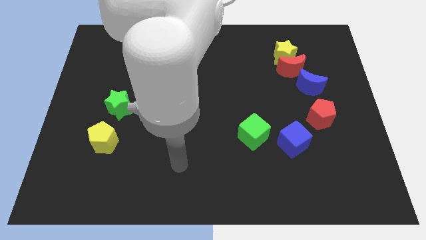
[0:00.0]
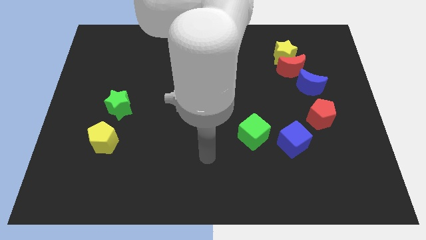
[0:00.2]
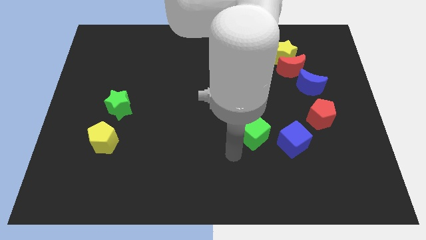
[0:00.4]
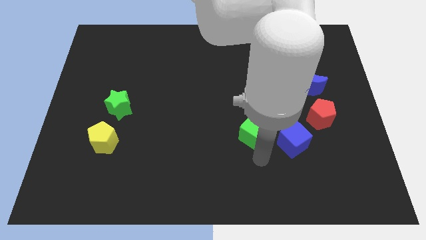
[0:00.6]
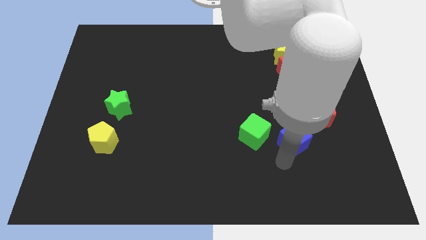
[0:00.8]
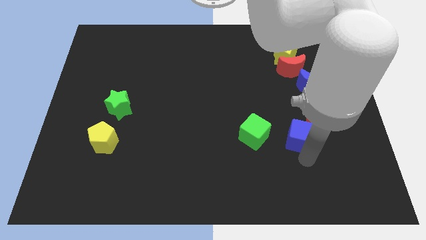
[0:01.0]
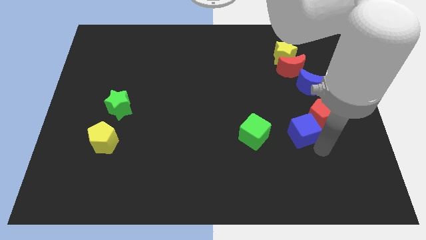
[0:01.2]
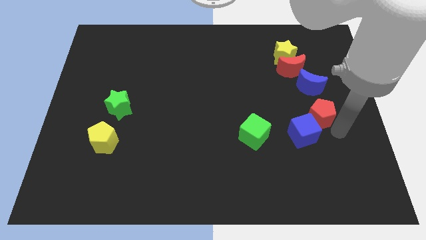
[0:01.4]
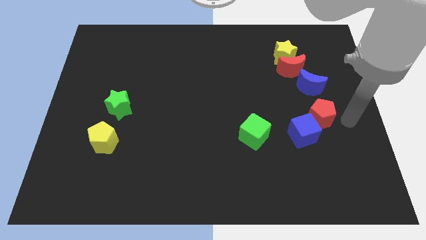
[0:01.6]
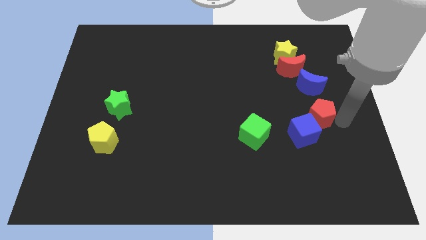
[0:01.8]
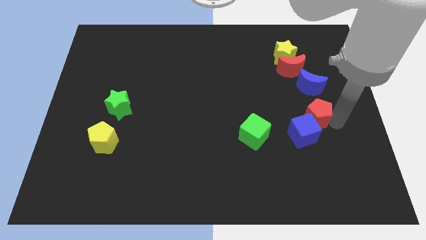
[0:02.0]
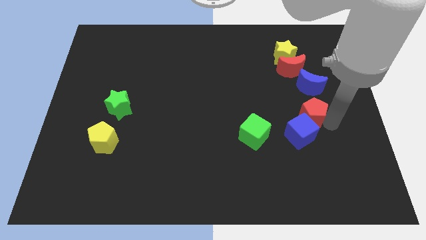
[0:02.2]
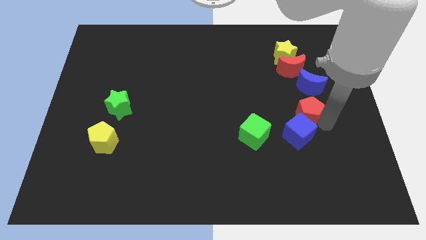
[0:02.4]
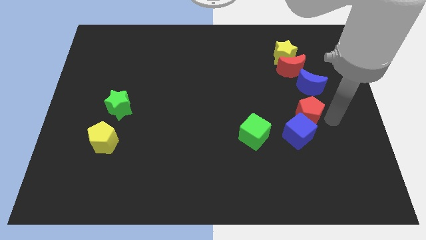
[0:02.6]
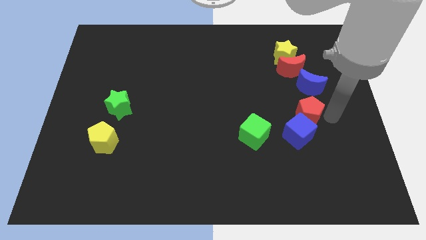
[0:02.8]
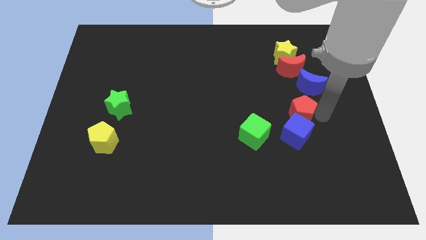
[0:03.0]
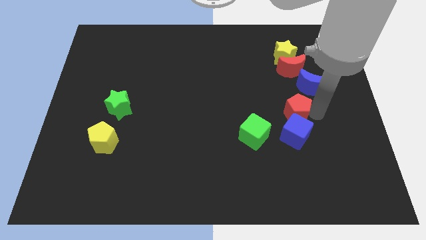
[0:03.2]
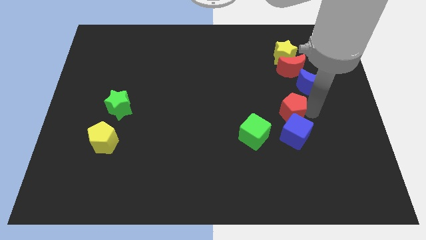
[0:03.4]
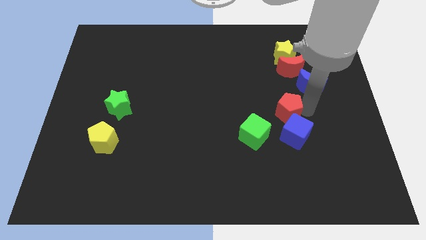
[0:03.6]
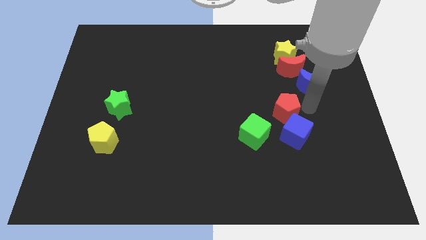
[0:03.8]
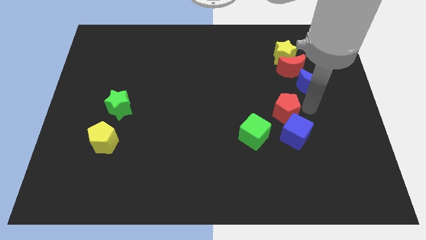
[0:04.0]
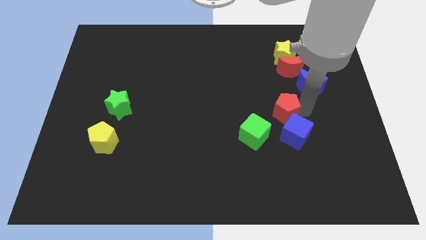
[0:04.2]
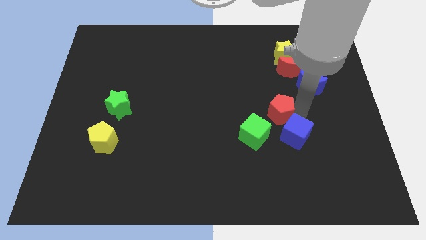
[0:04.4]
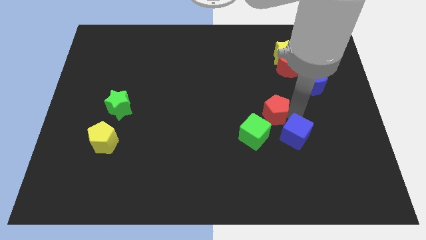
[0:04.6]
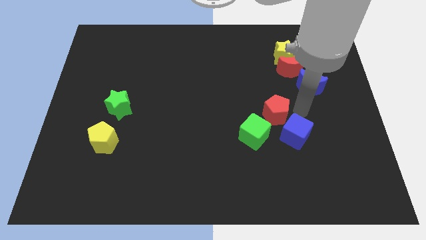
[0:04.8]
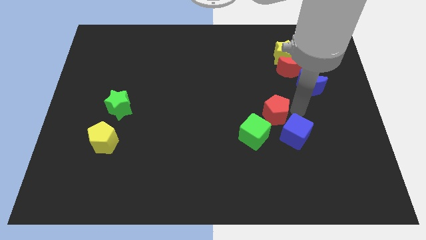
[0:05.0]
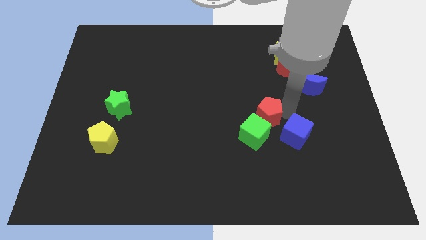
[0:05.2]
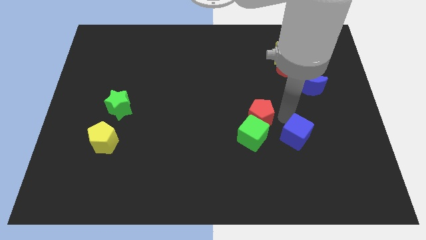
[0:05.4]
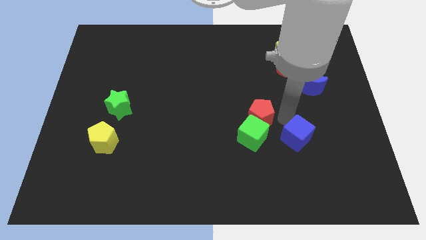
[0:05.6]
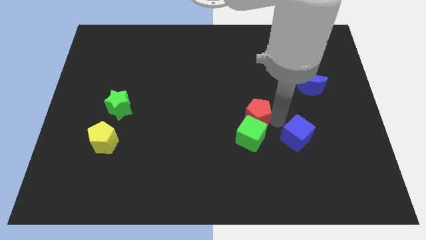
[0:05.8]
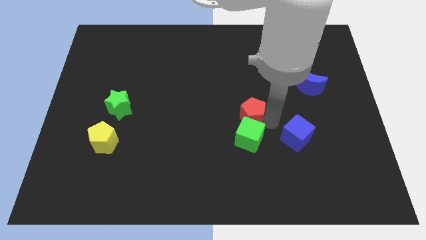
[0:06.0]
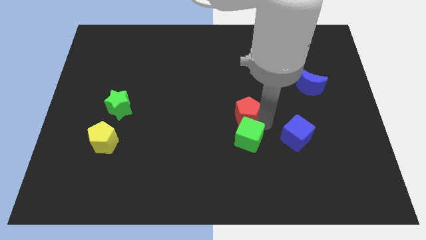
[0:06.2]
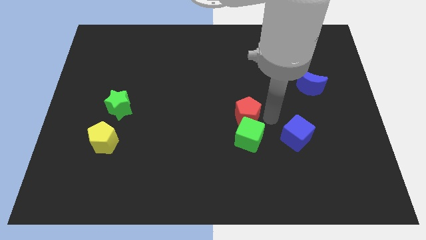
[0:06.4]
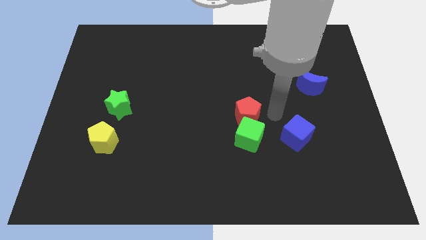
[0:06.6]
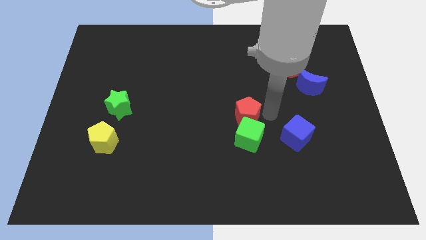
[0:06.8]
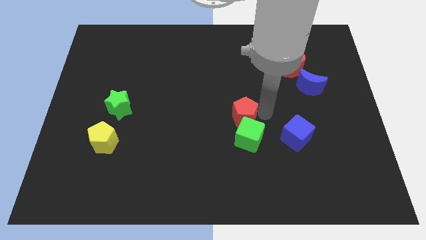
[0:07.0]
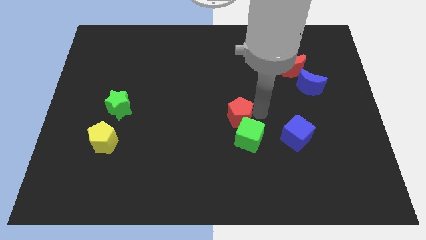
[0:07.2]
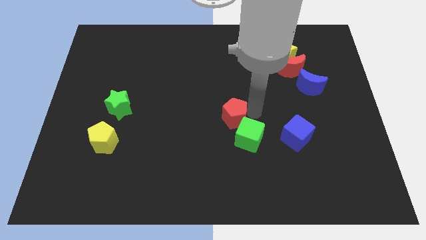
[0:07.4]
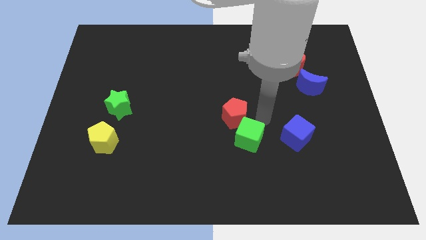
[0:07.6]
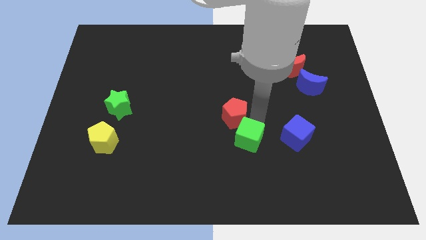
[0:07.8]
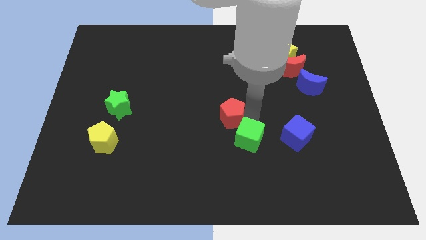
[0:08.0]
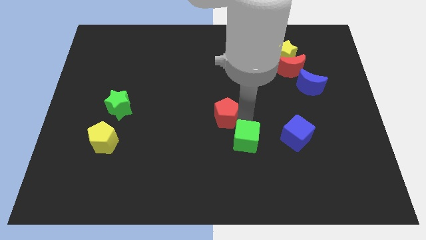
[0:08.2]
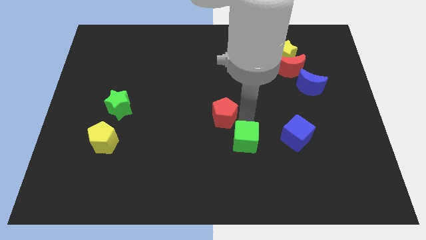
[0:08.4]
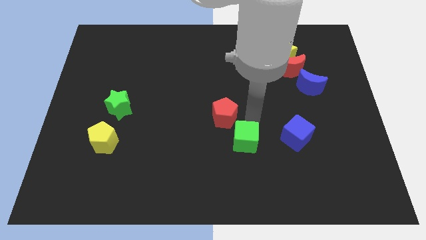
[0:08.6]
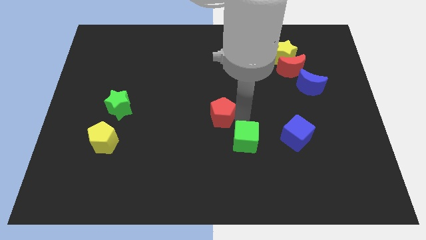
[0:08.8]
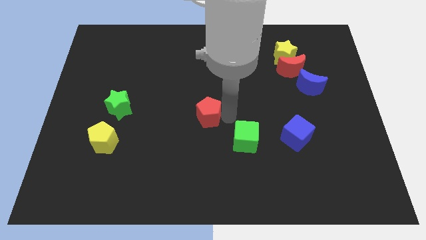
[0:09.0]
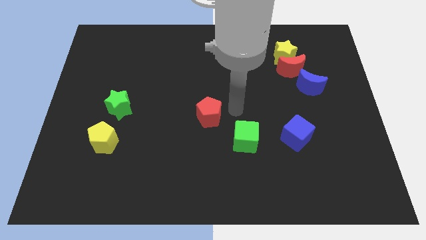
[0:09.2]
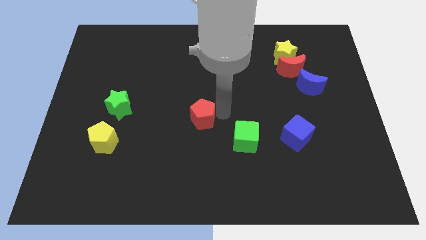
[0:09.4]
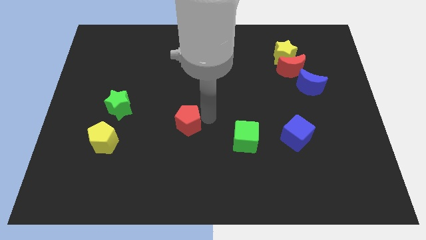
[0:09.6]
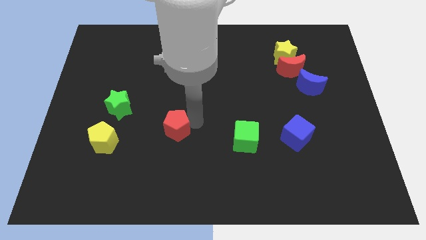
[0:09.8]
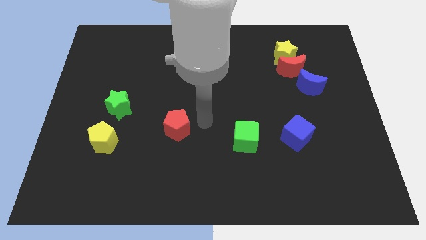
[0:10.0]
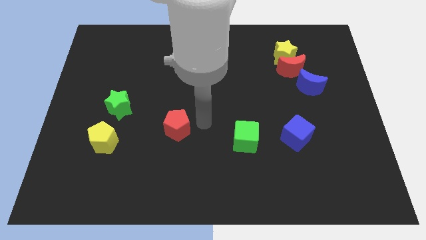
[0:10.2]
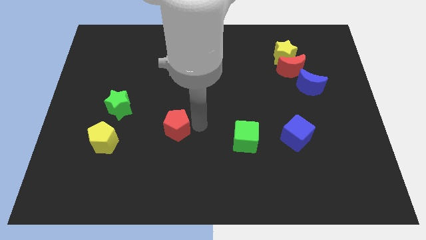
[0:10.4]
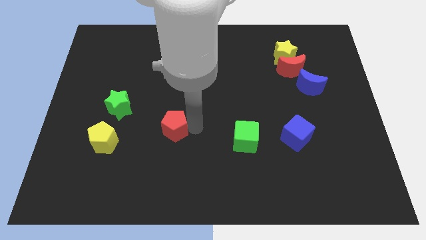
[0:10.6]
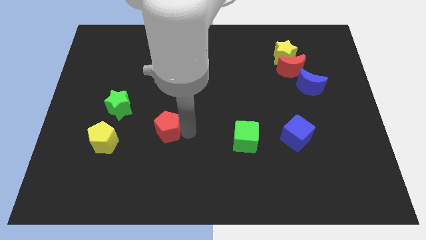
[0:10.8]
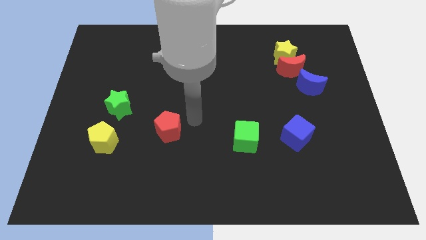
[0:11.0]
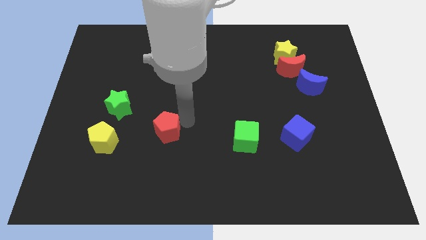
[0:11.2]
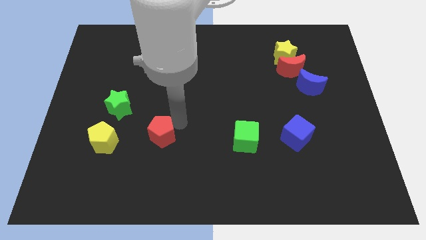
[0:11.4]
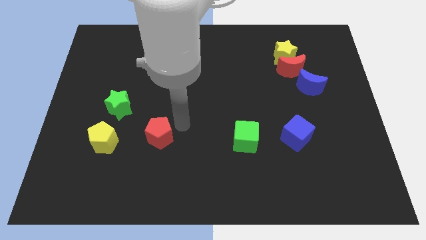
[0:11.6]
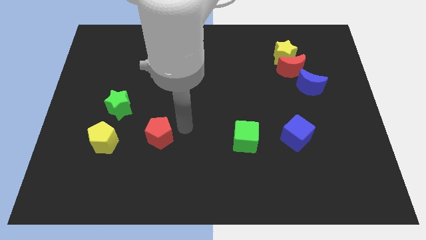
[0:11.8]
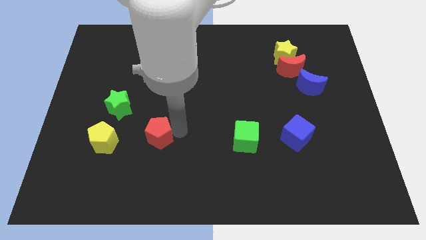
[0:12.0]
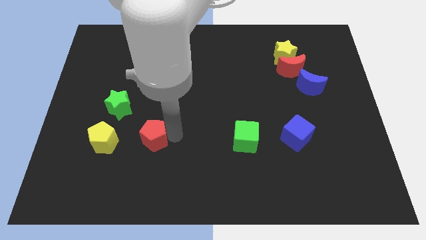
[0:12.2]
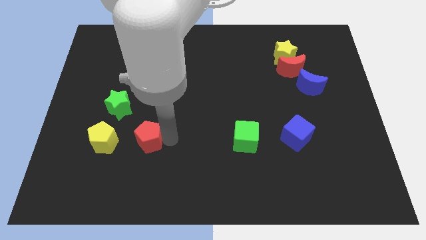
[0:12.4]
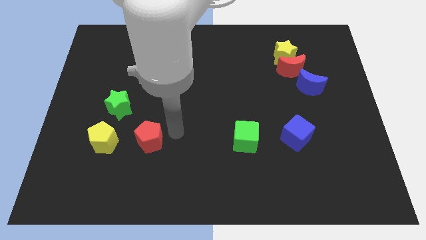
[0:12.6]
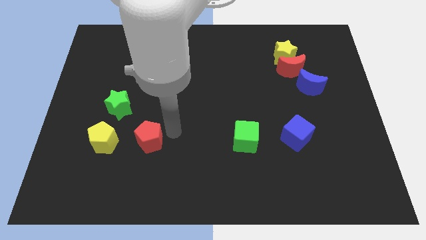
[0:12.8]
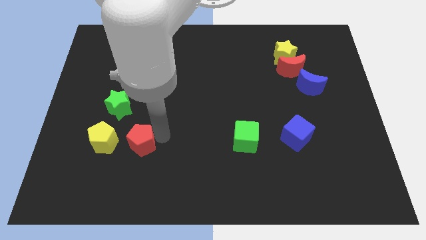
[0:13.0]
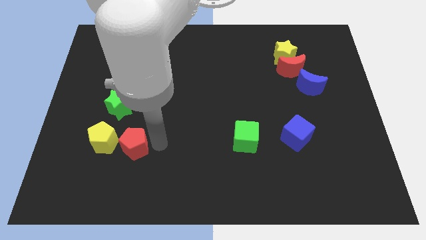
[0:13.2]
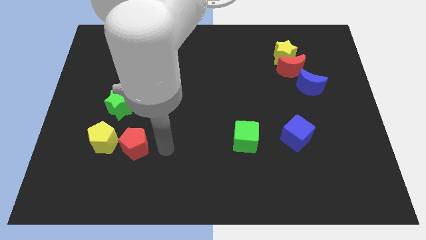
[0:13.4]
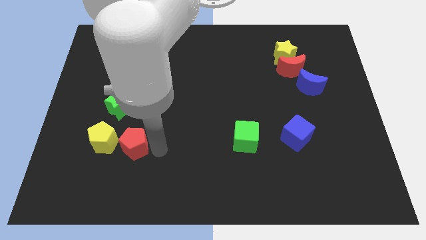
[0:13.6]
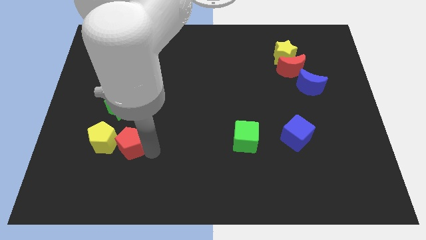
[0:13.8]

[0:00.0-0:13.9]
put the red pentagon to the bottom side of the green star

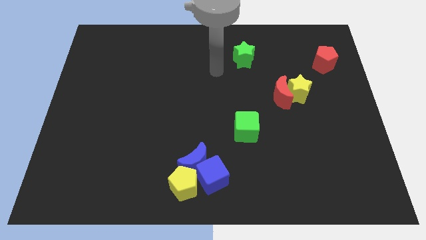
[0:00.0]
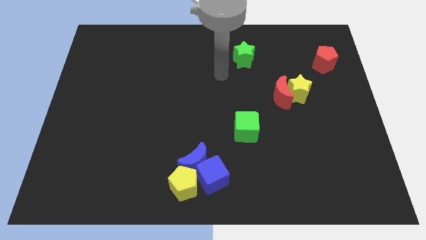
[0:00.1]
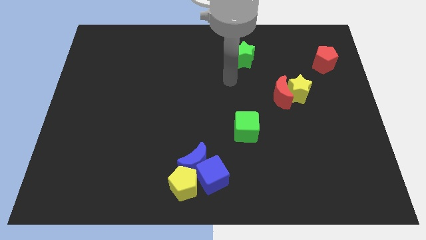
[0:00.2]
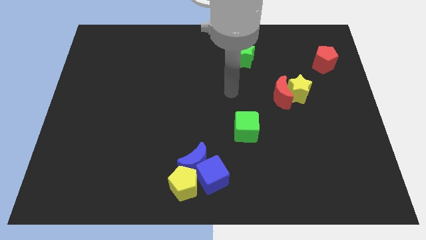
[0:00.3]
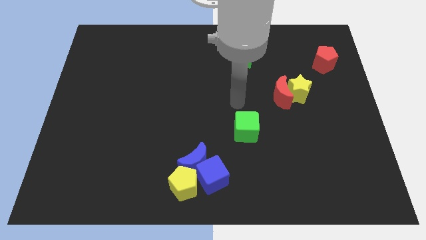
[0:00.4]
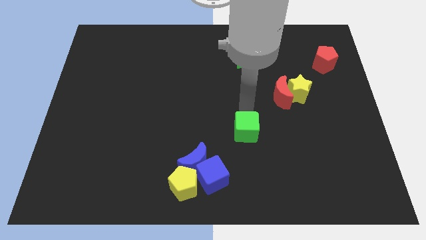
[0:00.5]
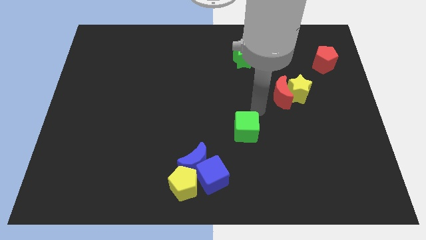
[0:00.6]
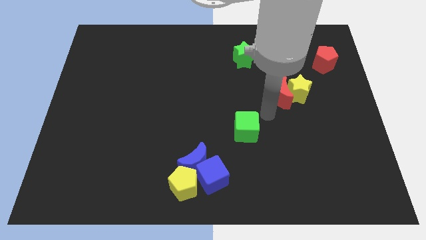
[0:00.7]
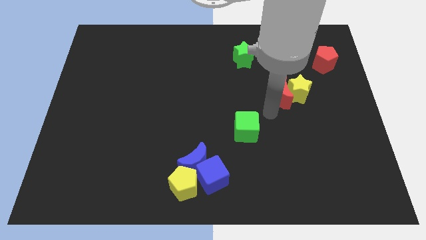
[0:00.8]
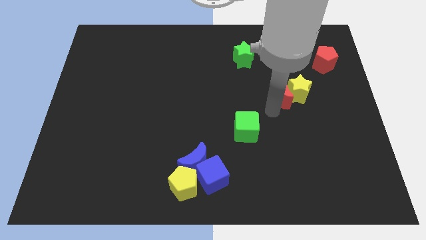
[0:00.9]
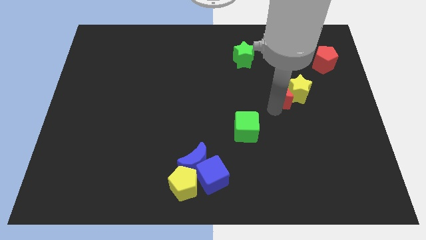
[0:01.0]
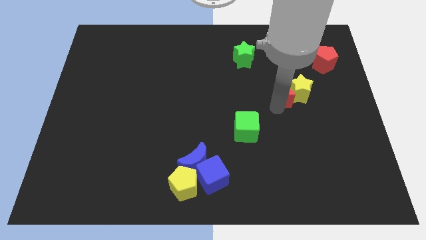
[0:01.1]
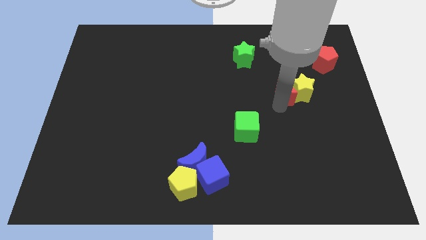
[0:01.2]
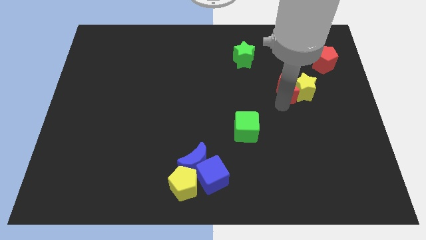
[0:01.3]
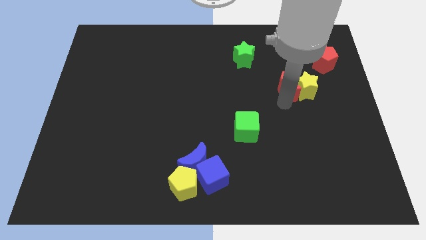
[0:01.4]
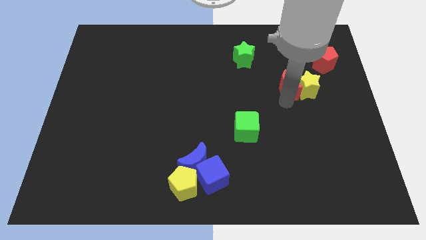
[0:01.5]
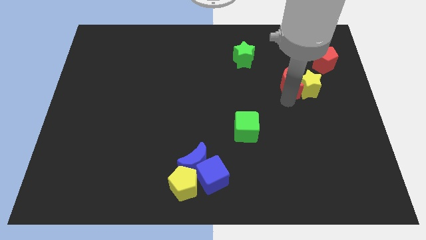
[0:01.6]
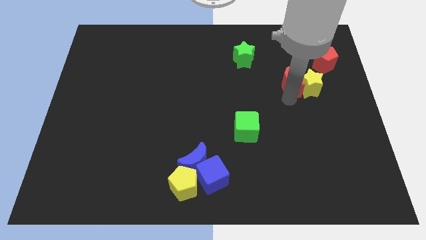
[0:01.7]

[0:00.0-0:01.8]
slide the red moon diagonally down and to the left of the red pentagon
